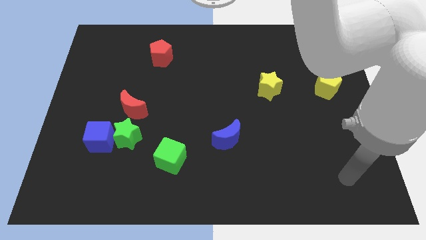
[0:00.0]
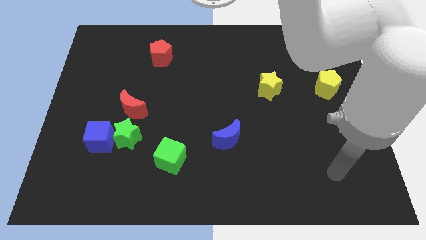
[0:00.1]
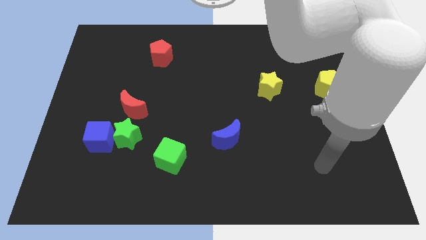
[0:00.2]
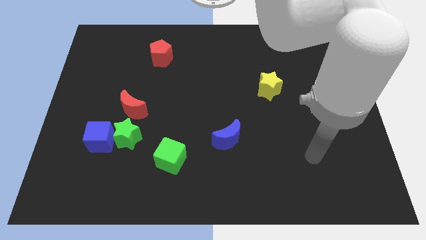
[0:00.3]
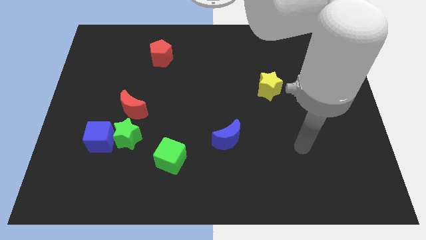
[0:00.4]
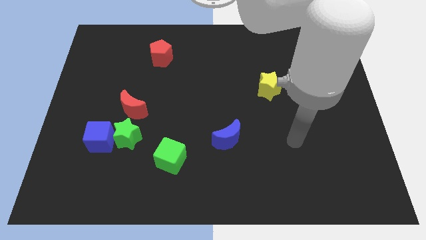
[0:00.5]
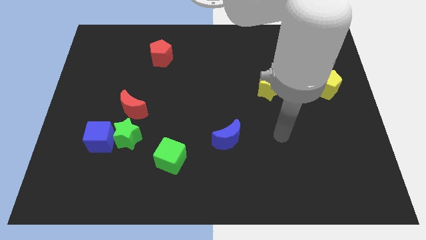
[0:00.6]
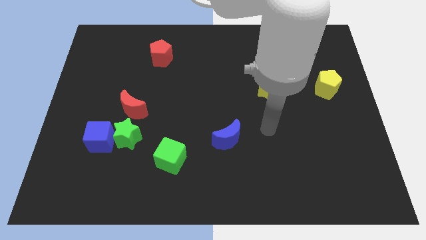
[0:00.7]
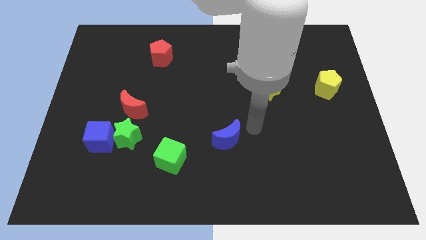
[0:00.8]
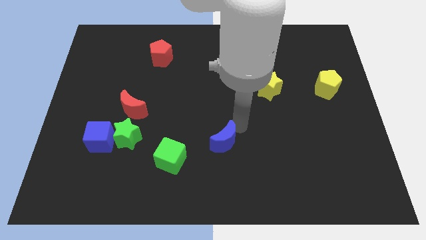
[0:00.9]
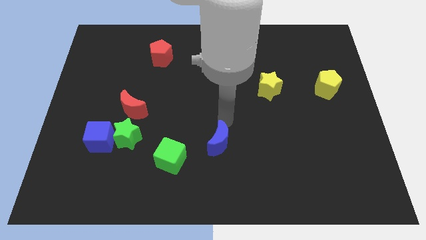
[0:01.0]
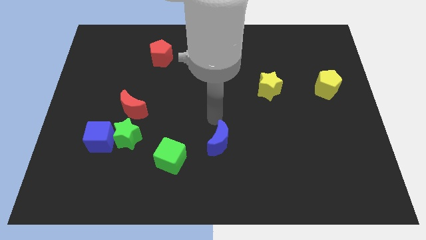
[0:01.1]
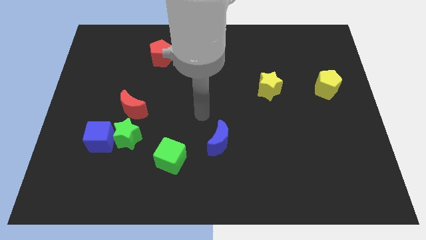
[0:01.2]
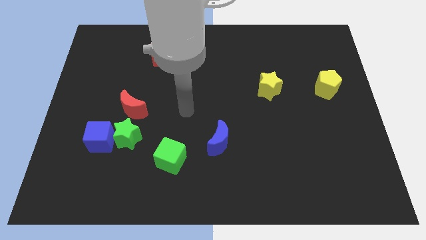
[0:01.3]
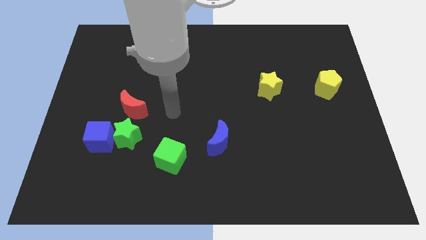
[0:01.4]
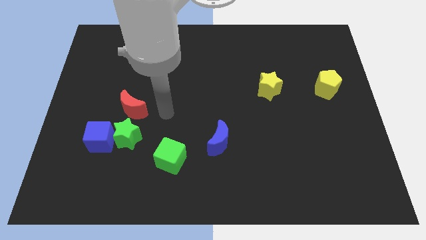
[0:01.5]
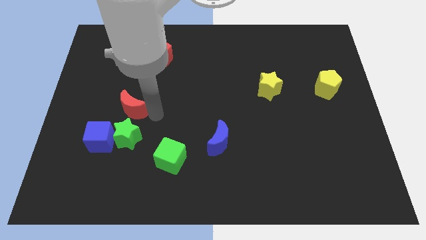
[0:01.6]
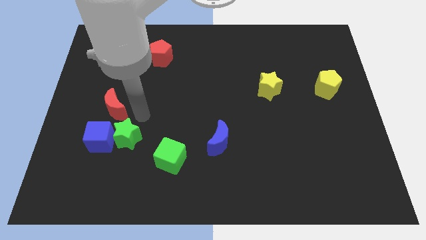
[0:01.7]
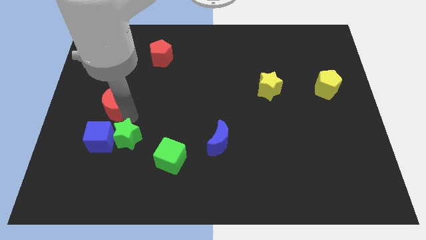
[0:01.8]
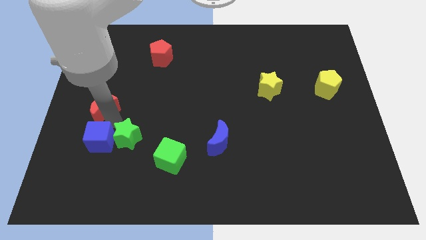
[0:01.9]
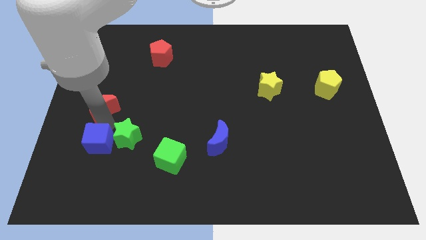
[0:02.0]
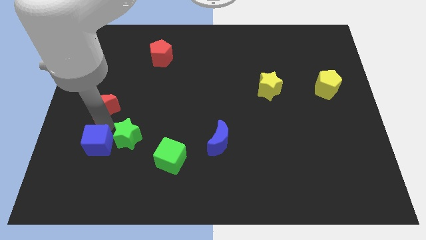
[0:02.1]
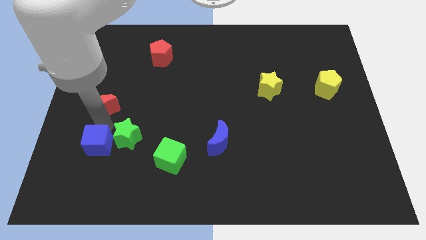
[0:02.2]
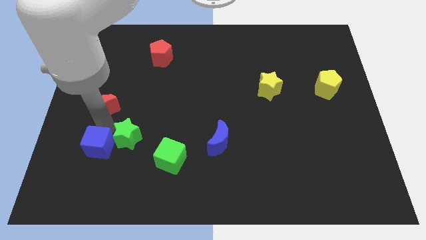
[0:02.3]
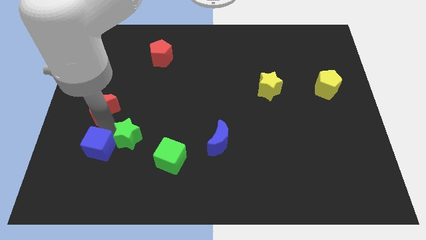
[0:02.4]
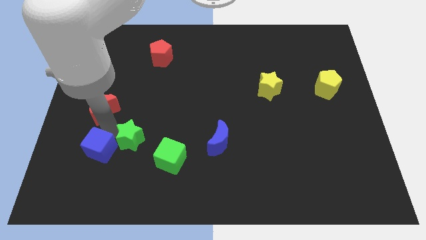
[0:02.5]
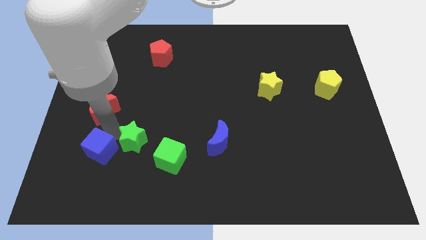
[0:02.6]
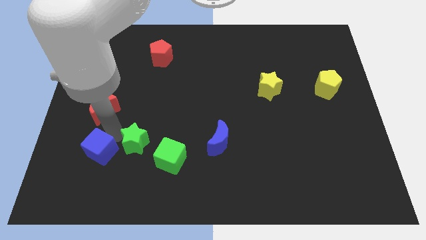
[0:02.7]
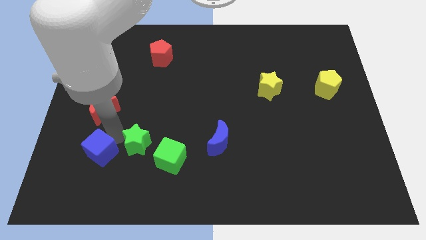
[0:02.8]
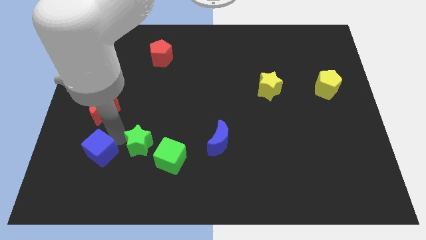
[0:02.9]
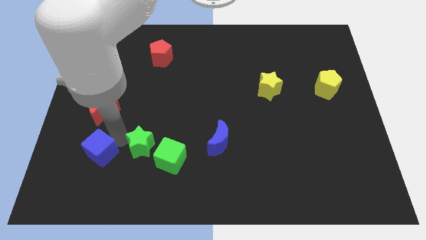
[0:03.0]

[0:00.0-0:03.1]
move the green star away from the blue cube and red moon

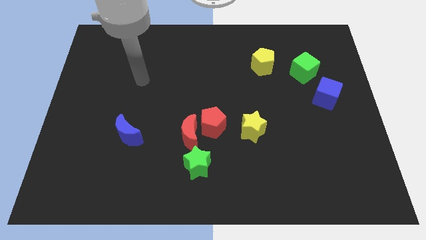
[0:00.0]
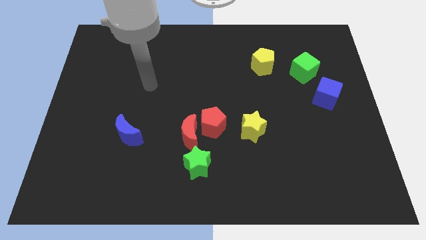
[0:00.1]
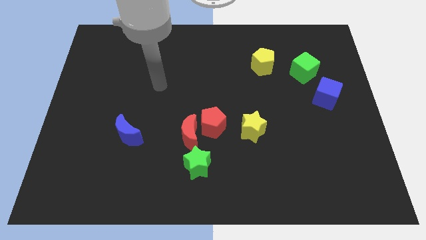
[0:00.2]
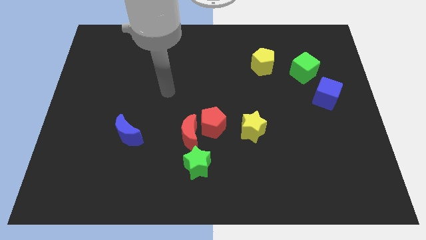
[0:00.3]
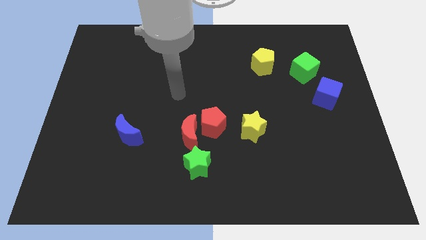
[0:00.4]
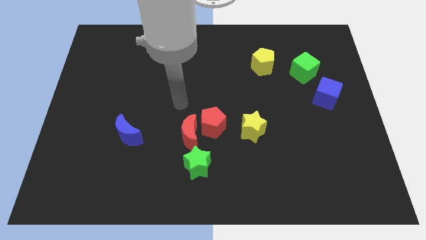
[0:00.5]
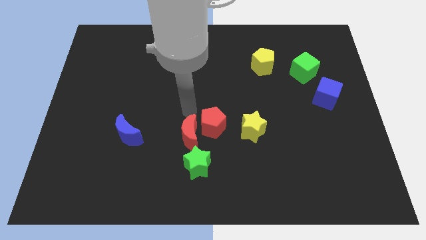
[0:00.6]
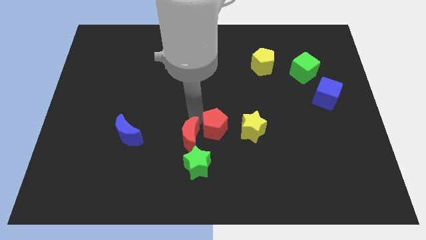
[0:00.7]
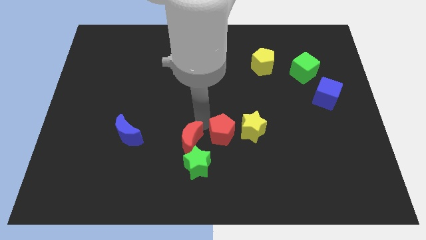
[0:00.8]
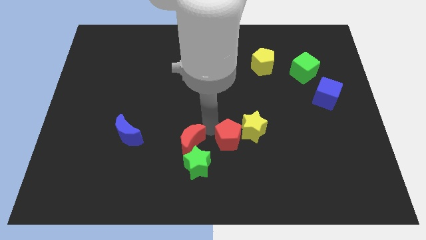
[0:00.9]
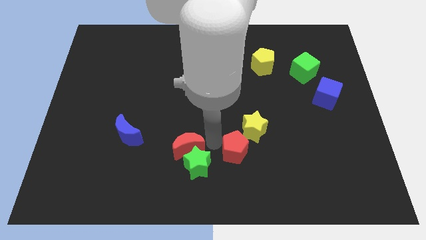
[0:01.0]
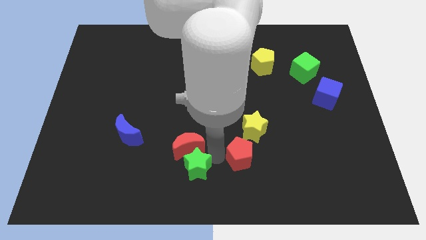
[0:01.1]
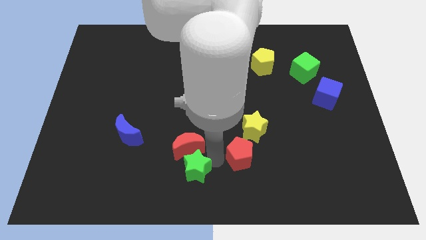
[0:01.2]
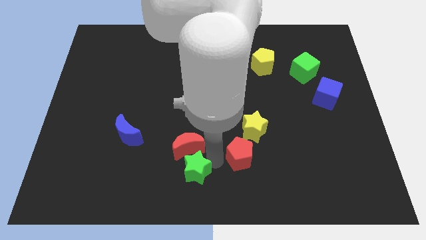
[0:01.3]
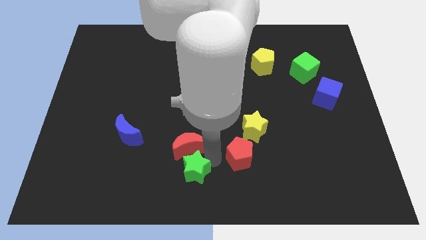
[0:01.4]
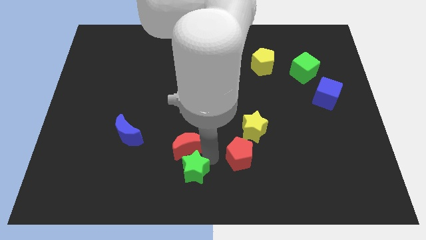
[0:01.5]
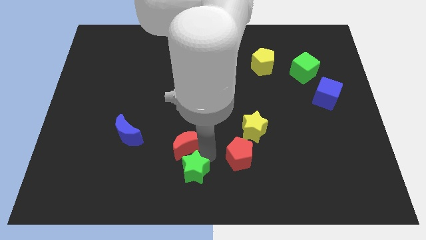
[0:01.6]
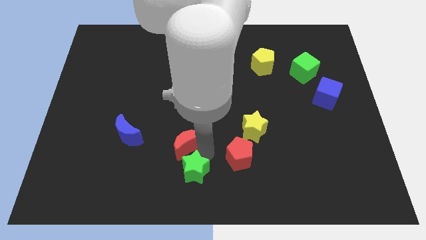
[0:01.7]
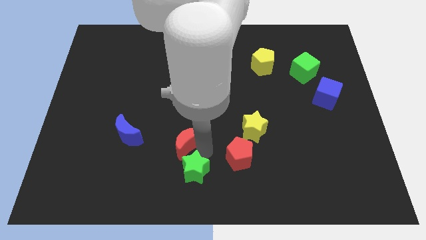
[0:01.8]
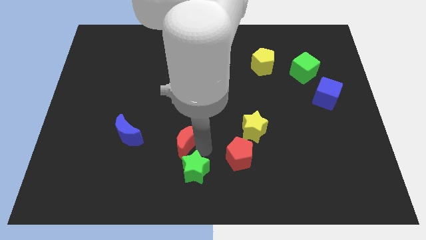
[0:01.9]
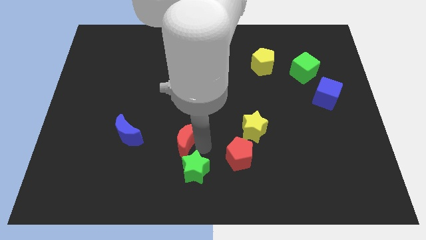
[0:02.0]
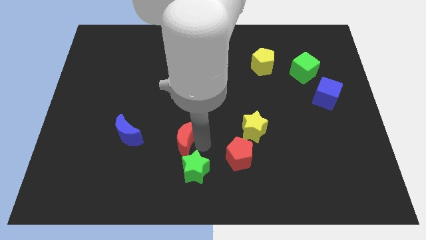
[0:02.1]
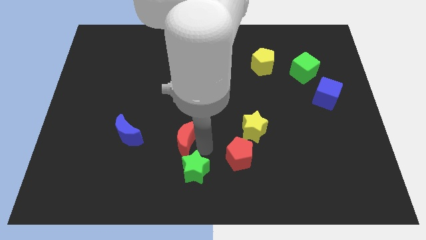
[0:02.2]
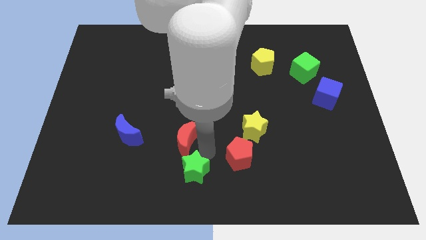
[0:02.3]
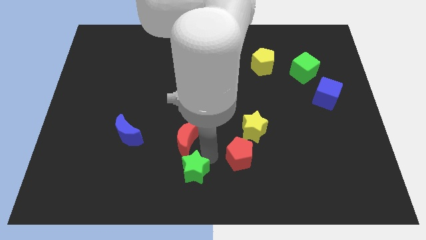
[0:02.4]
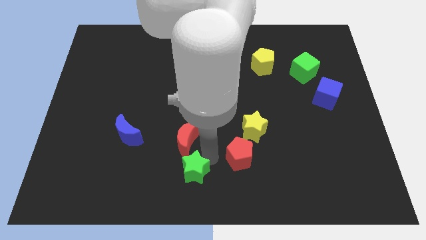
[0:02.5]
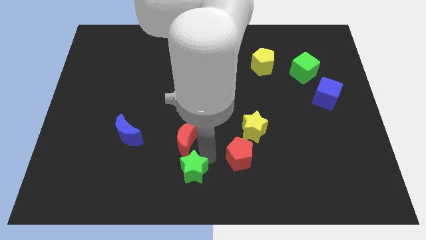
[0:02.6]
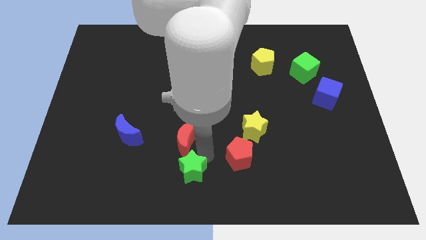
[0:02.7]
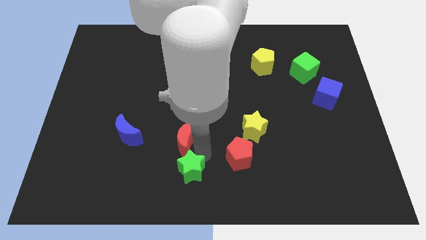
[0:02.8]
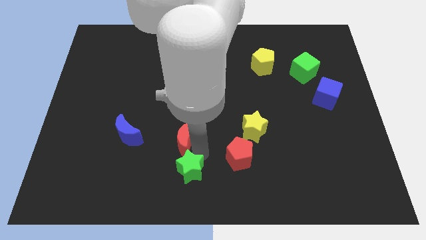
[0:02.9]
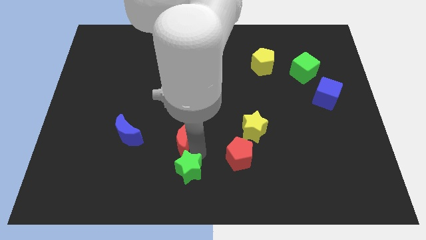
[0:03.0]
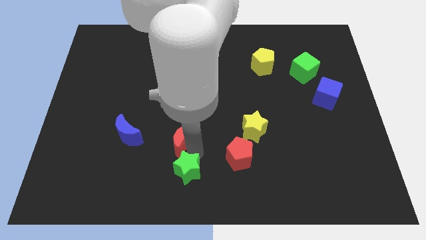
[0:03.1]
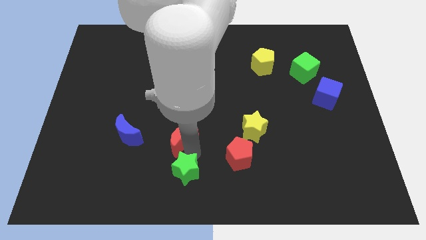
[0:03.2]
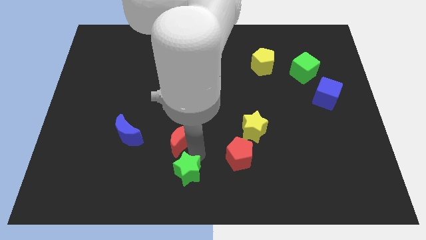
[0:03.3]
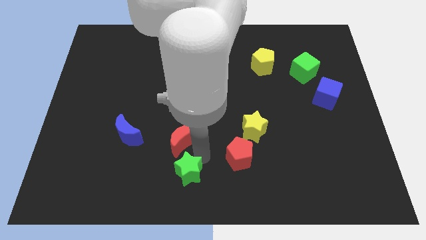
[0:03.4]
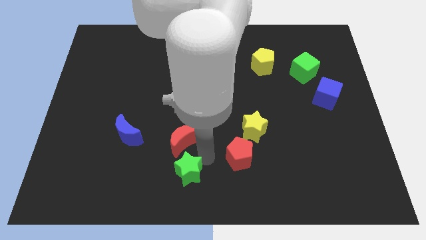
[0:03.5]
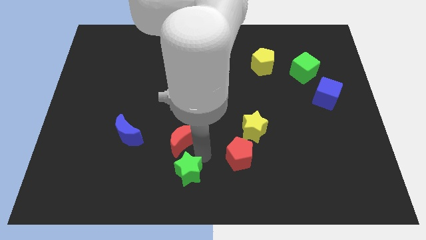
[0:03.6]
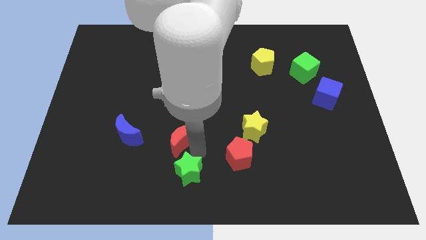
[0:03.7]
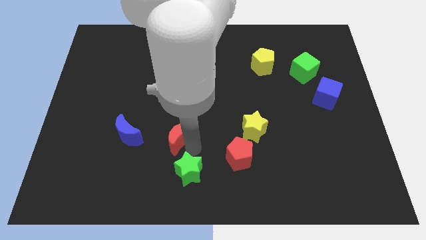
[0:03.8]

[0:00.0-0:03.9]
pull the red moon apart from the red pentagon and green star

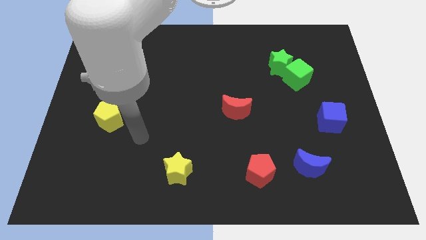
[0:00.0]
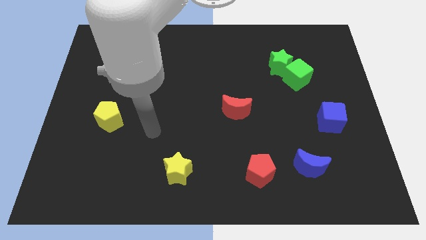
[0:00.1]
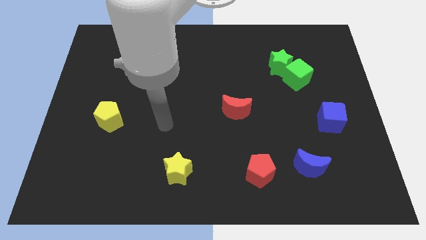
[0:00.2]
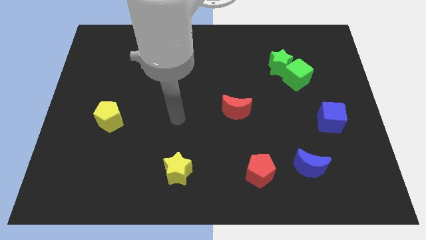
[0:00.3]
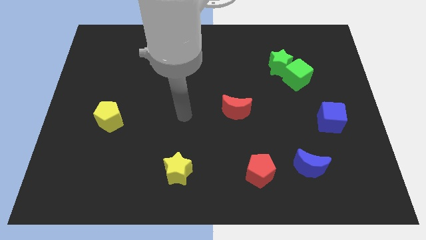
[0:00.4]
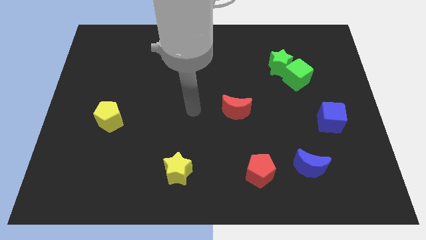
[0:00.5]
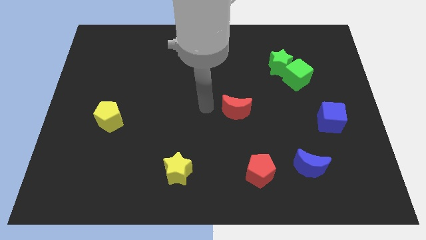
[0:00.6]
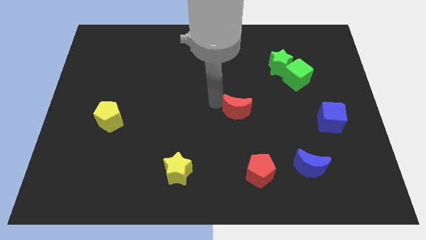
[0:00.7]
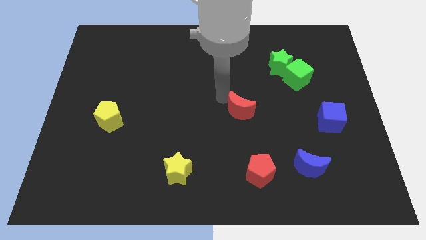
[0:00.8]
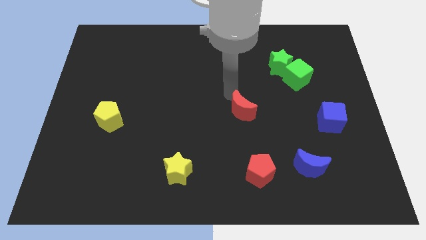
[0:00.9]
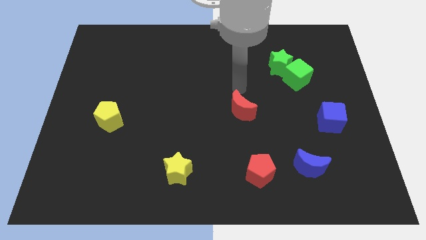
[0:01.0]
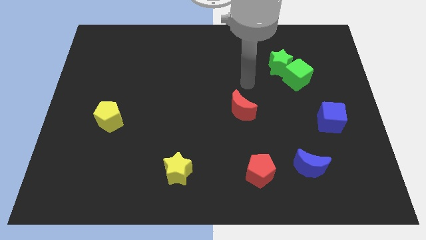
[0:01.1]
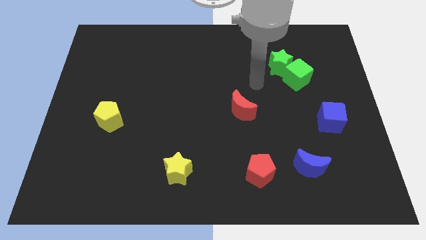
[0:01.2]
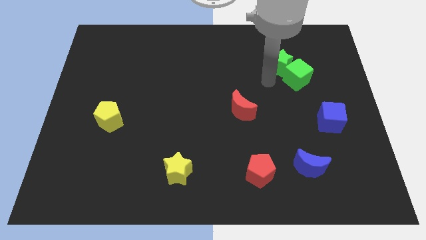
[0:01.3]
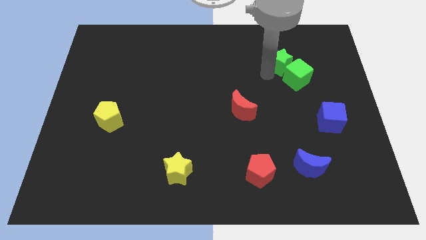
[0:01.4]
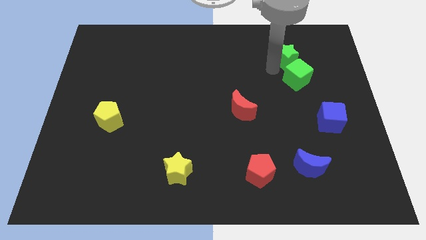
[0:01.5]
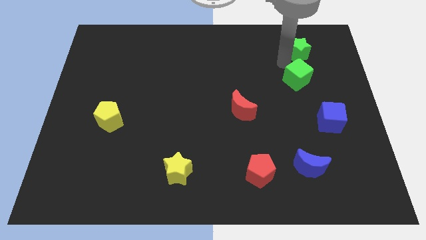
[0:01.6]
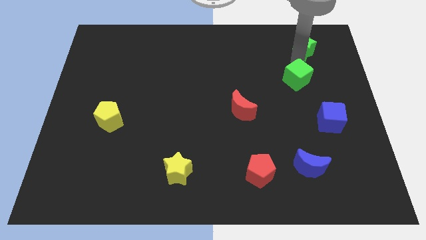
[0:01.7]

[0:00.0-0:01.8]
move the green cube away from the green star

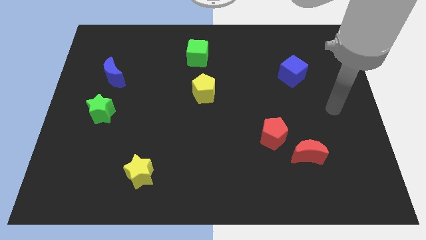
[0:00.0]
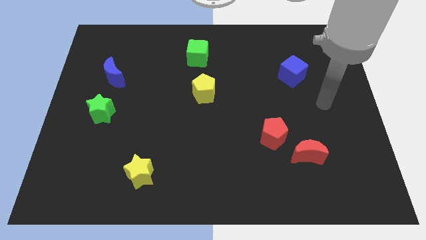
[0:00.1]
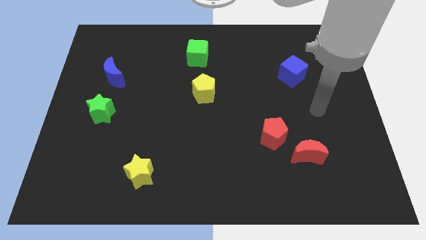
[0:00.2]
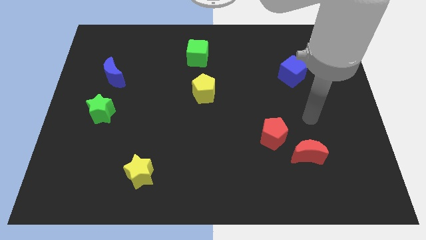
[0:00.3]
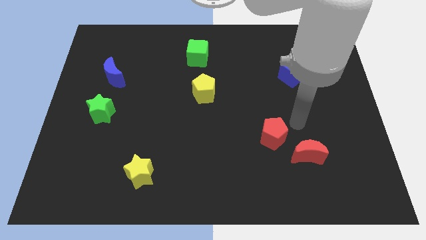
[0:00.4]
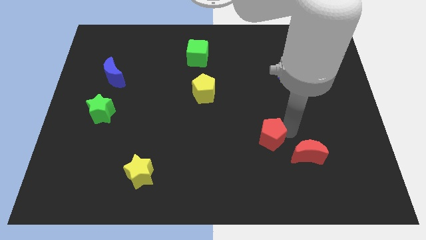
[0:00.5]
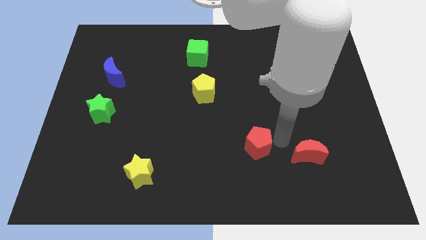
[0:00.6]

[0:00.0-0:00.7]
move the red moon away from the red pentagon
